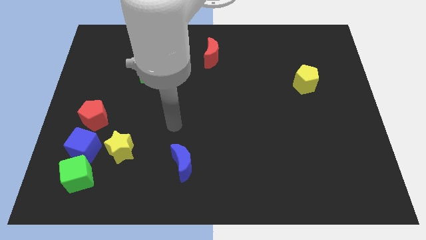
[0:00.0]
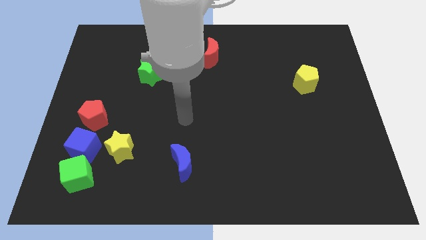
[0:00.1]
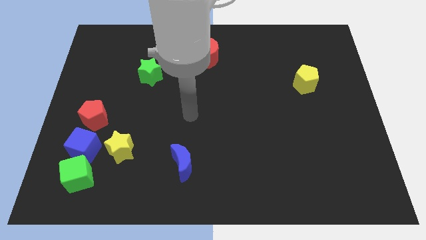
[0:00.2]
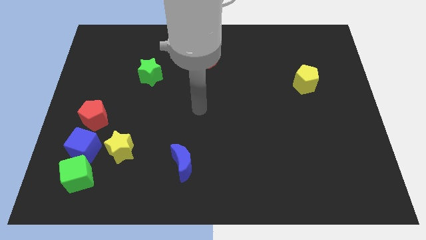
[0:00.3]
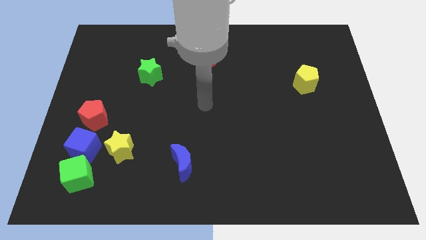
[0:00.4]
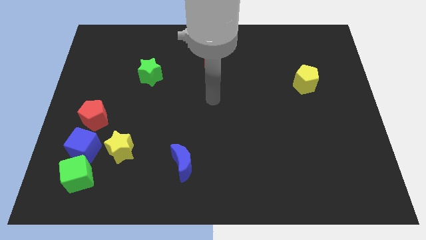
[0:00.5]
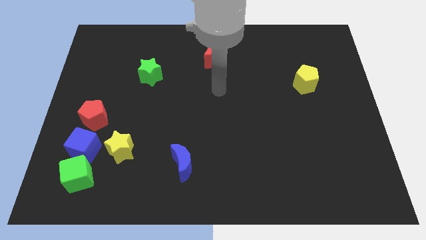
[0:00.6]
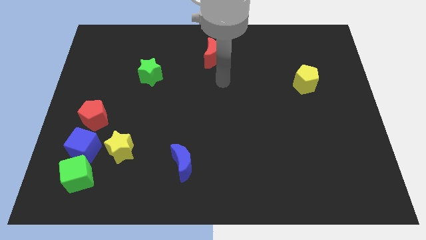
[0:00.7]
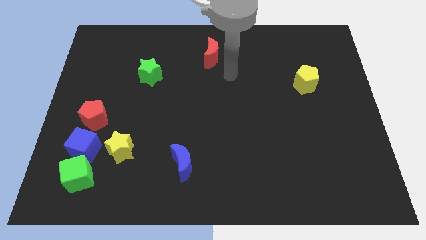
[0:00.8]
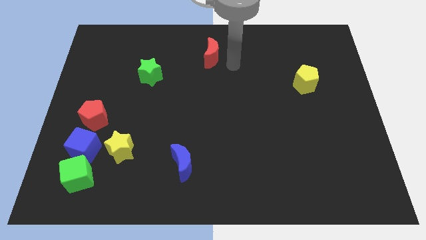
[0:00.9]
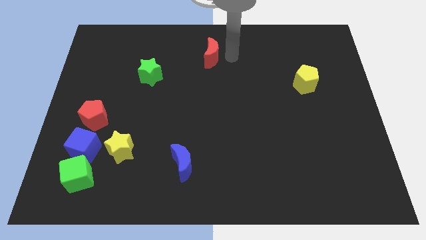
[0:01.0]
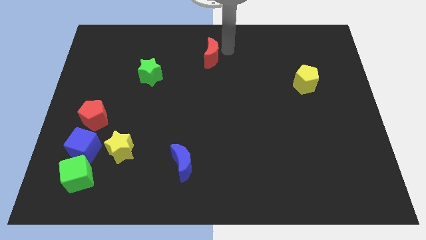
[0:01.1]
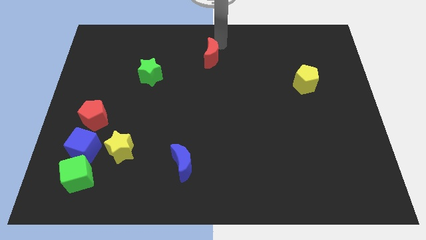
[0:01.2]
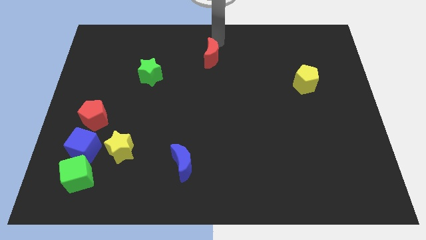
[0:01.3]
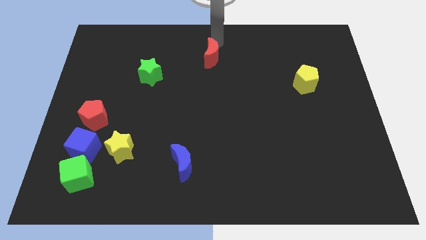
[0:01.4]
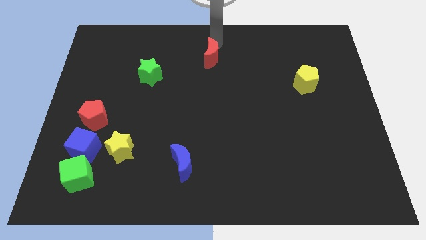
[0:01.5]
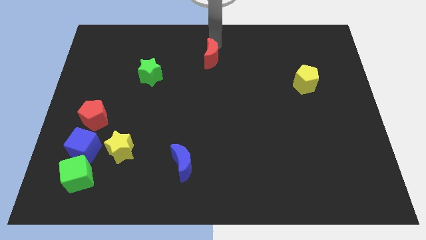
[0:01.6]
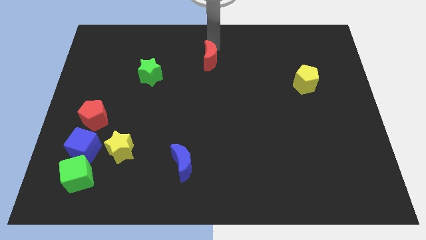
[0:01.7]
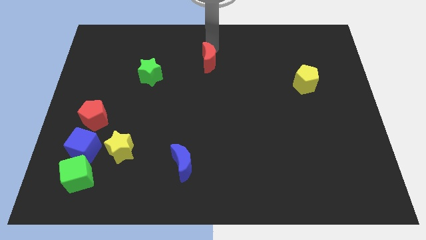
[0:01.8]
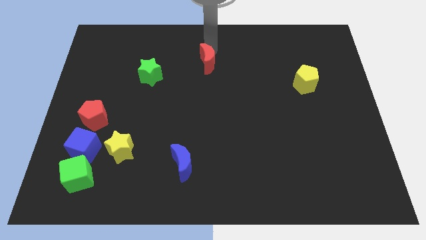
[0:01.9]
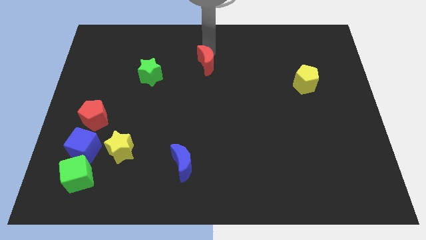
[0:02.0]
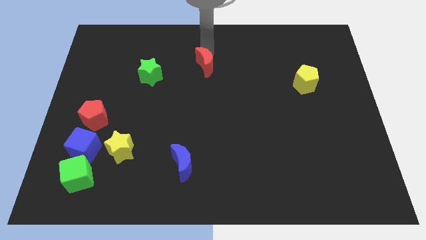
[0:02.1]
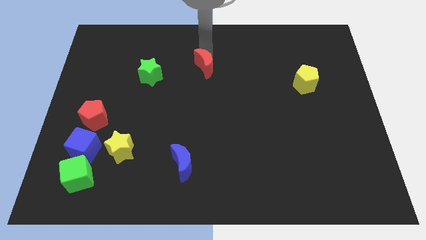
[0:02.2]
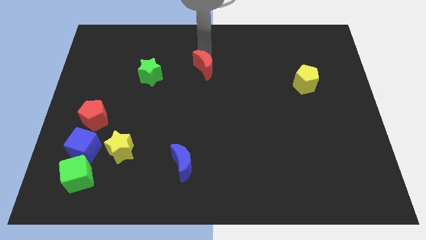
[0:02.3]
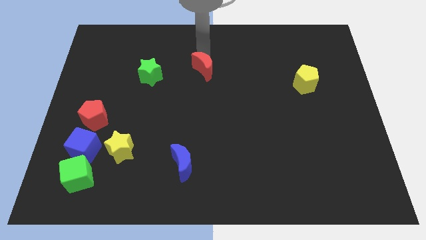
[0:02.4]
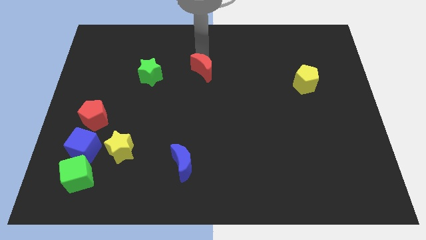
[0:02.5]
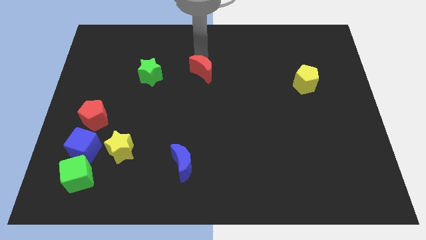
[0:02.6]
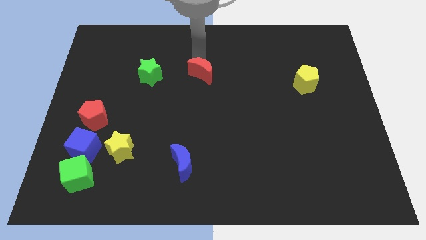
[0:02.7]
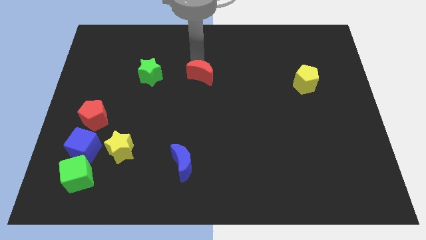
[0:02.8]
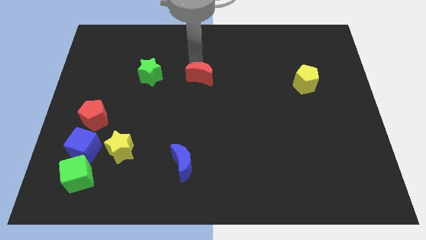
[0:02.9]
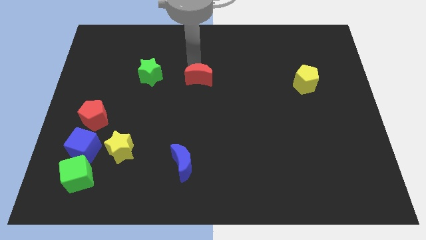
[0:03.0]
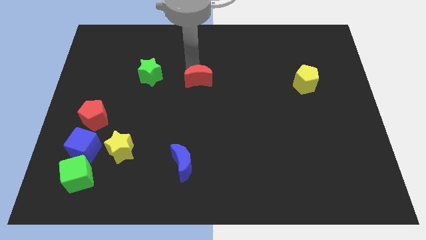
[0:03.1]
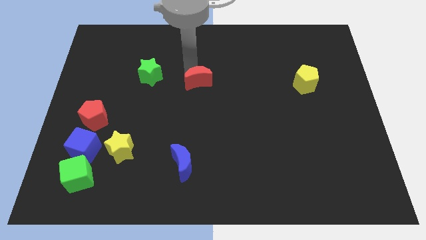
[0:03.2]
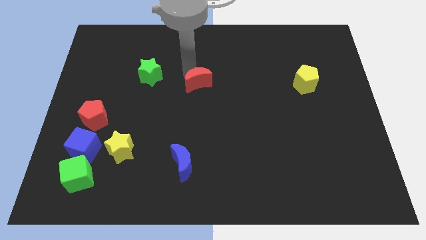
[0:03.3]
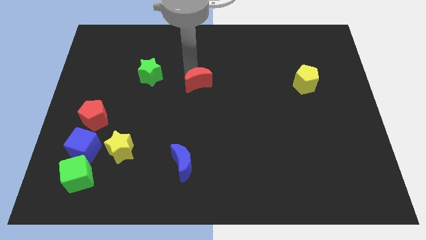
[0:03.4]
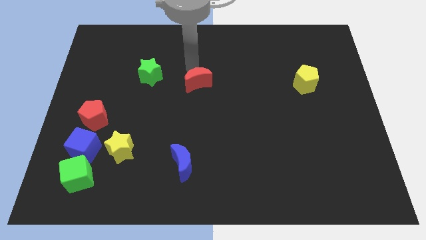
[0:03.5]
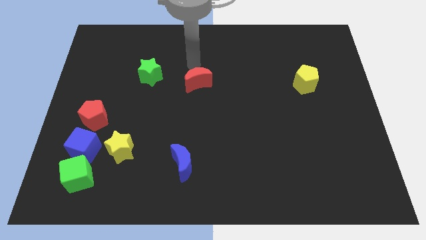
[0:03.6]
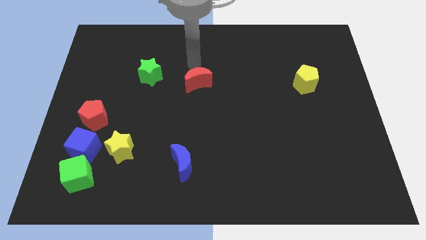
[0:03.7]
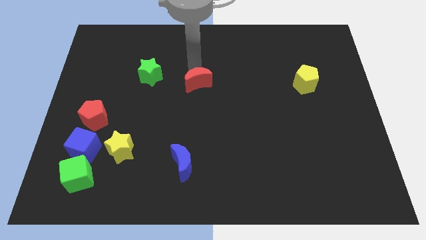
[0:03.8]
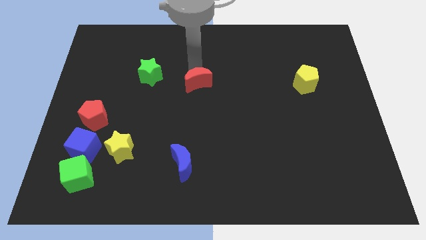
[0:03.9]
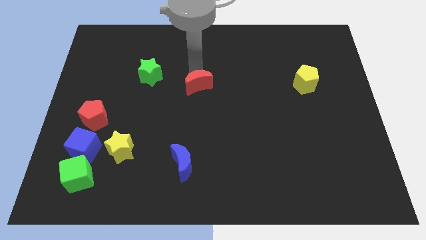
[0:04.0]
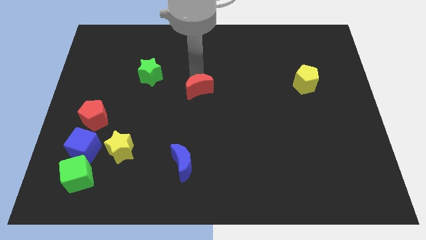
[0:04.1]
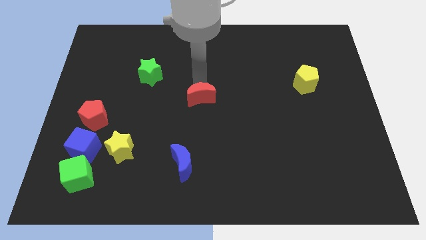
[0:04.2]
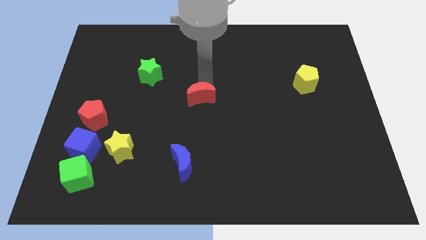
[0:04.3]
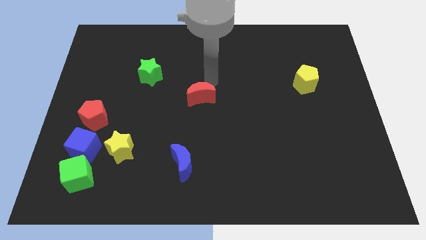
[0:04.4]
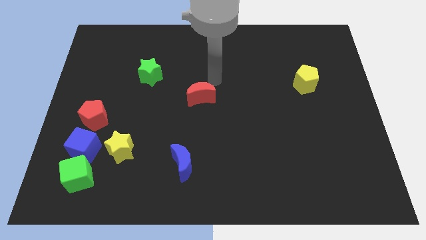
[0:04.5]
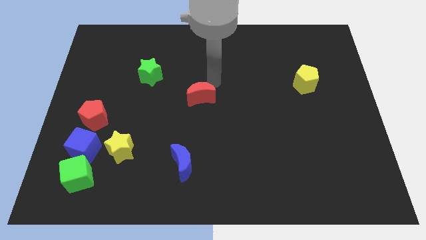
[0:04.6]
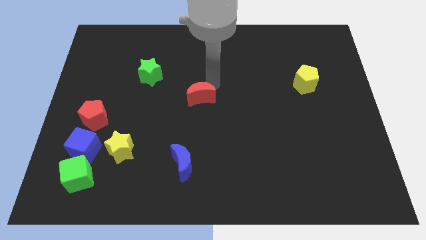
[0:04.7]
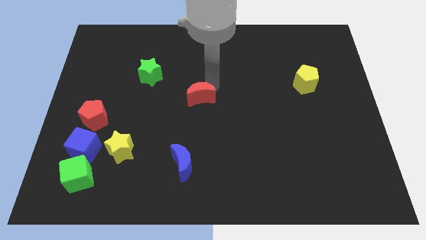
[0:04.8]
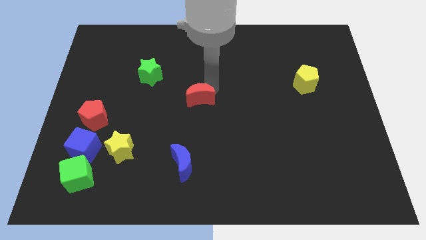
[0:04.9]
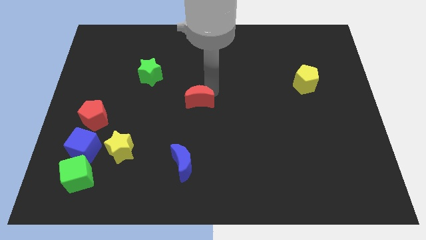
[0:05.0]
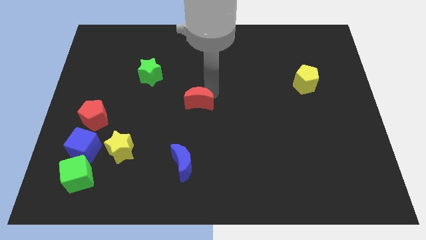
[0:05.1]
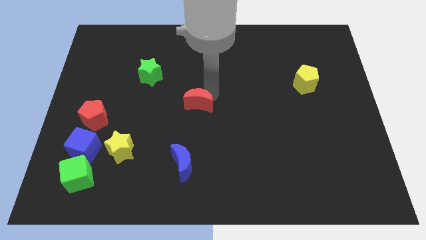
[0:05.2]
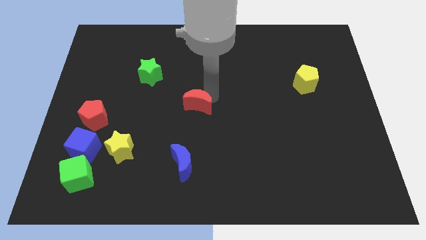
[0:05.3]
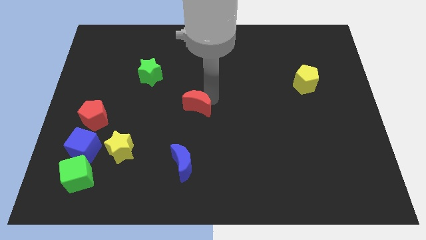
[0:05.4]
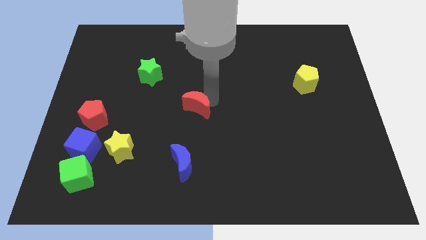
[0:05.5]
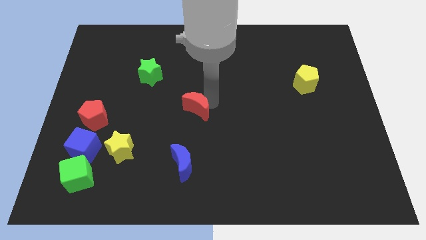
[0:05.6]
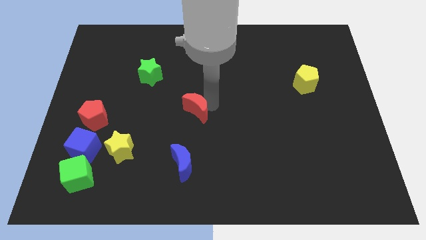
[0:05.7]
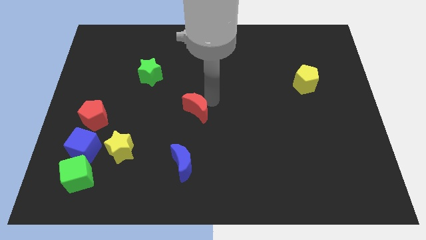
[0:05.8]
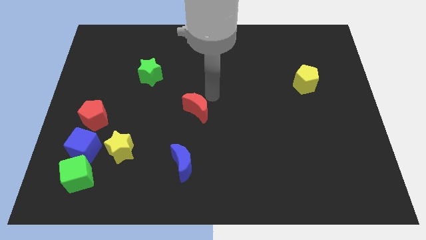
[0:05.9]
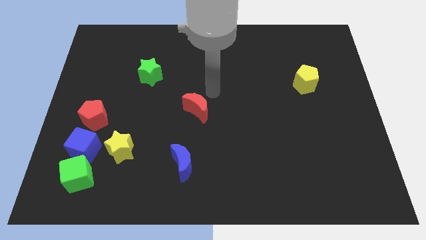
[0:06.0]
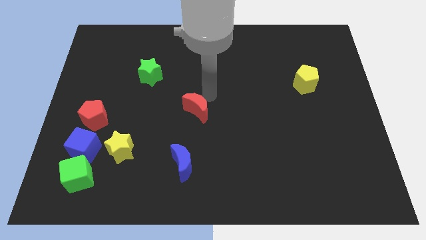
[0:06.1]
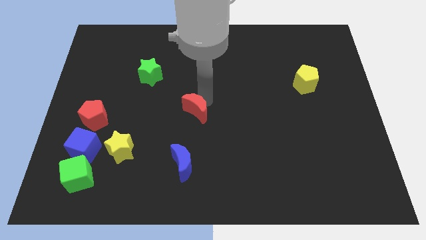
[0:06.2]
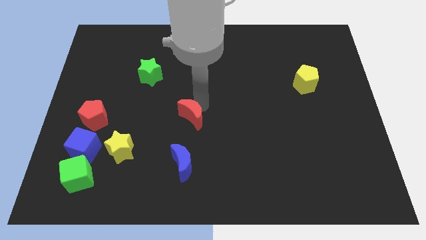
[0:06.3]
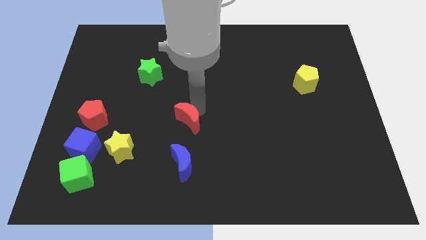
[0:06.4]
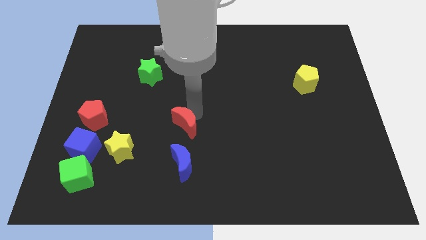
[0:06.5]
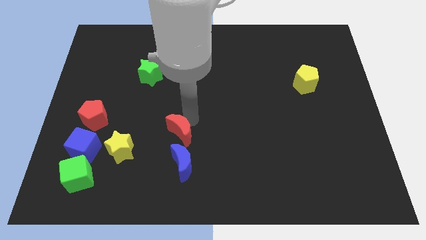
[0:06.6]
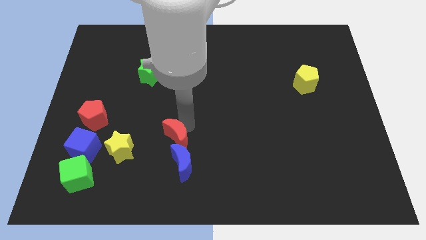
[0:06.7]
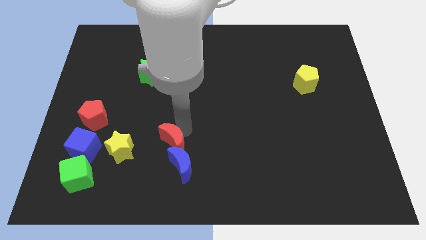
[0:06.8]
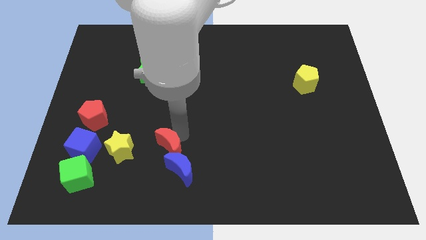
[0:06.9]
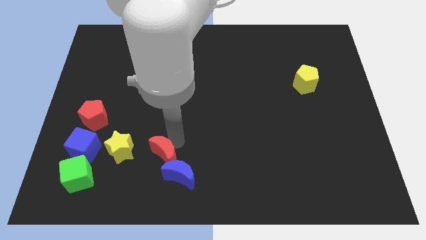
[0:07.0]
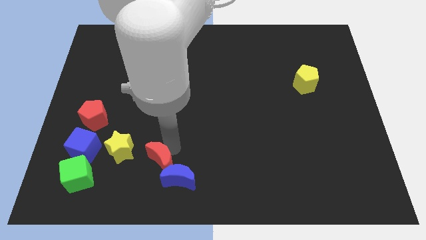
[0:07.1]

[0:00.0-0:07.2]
move the red moon to the bottom right of the yellow star
